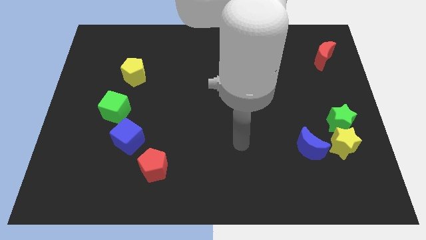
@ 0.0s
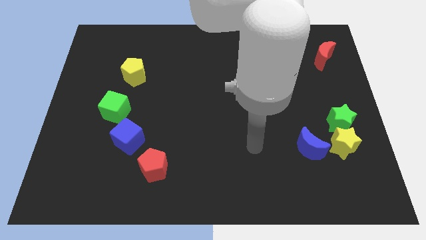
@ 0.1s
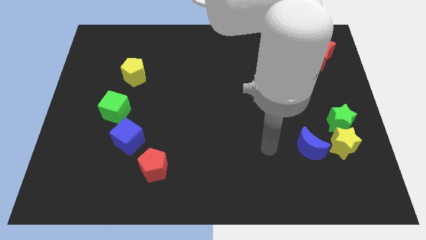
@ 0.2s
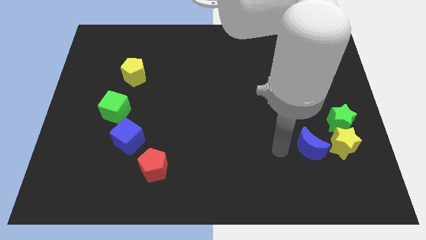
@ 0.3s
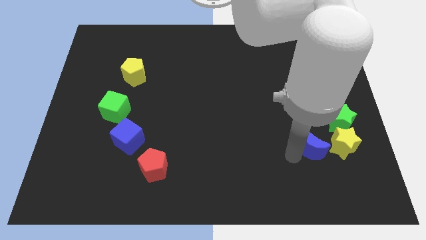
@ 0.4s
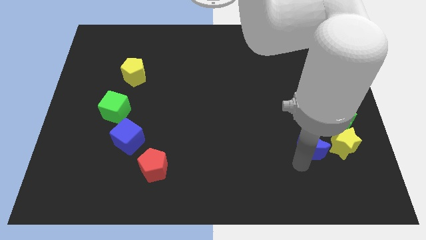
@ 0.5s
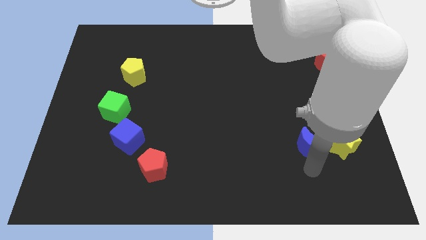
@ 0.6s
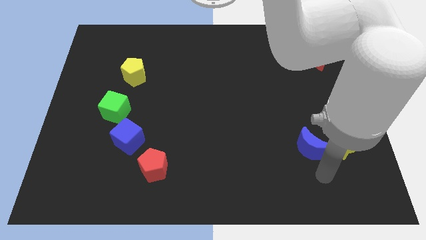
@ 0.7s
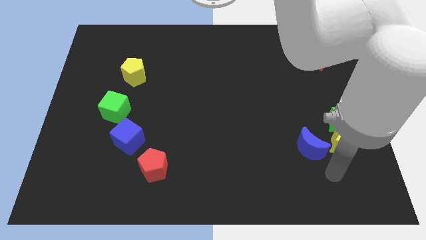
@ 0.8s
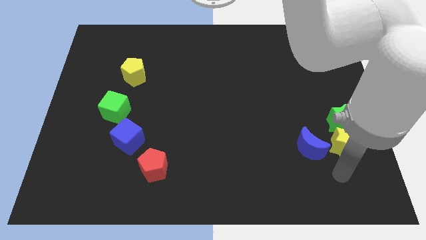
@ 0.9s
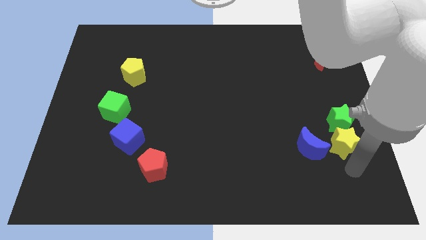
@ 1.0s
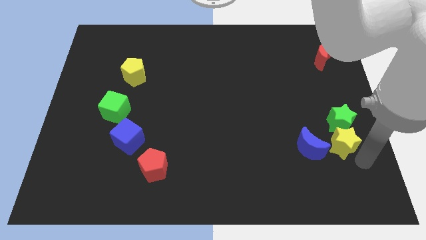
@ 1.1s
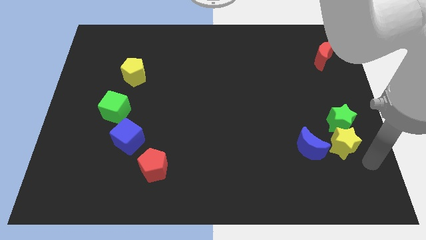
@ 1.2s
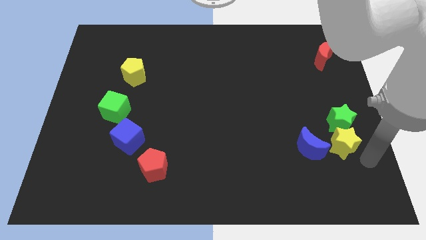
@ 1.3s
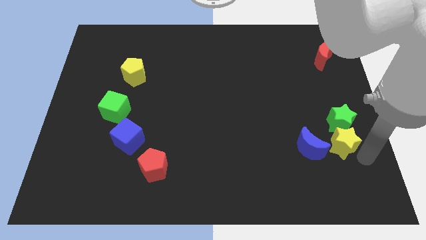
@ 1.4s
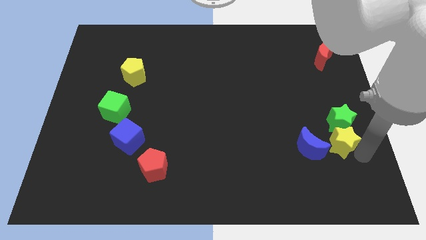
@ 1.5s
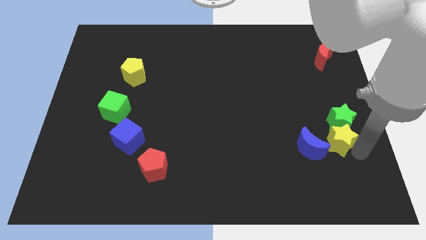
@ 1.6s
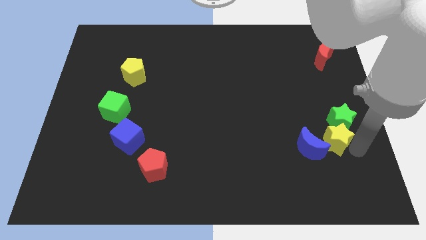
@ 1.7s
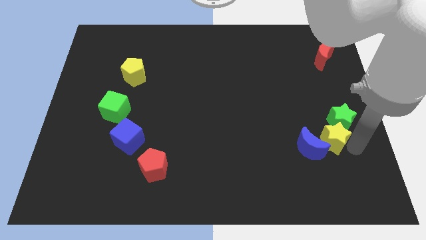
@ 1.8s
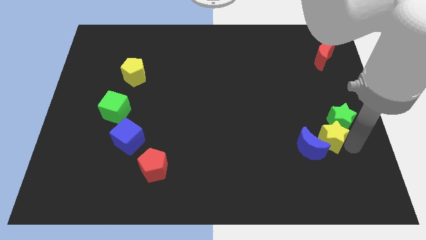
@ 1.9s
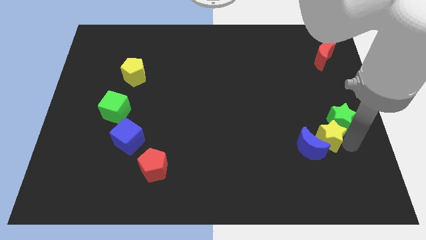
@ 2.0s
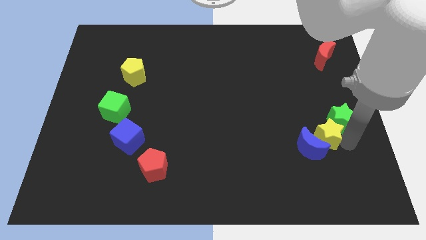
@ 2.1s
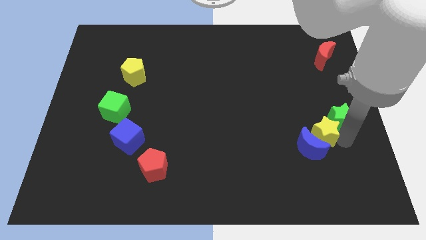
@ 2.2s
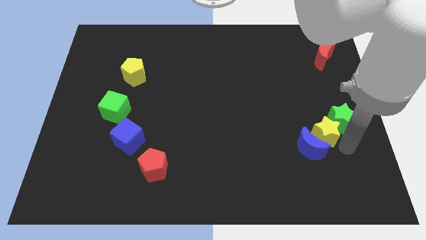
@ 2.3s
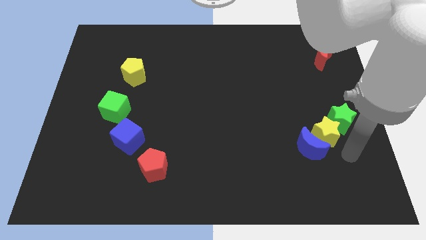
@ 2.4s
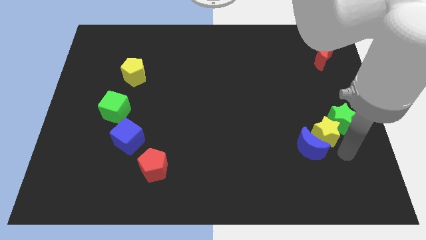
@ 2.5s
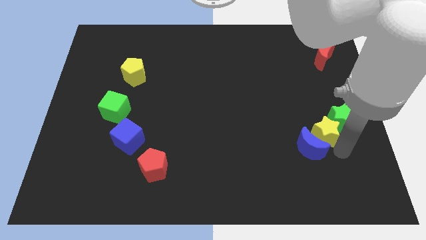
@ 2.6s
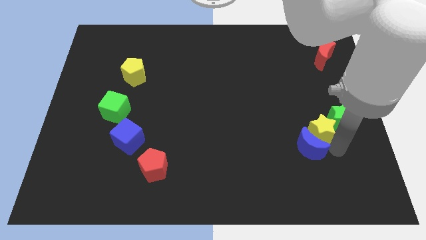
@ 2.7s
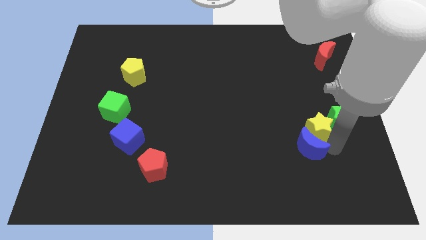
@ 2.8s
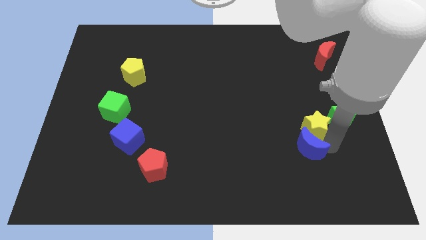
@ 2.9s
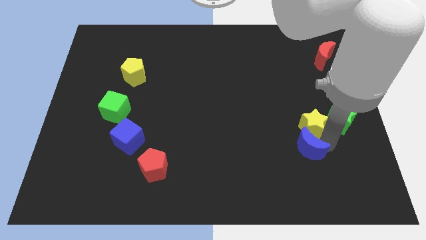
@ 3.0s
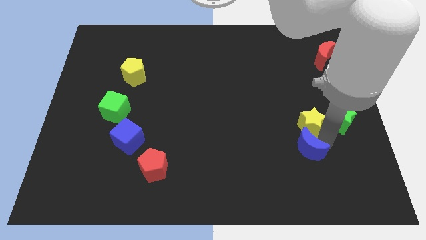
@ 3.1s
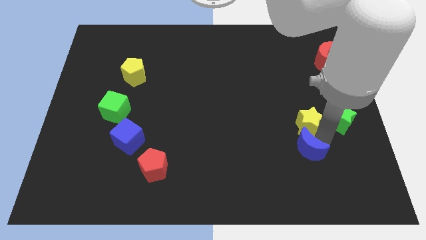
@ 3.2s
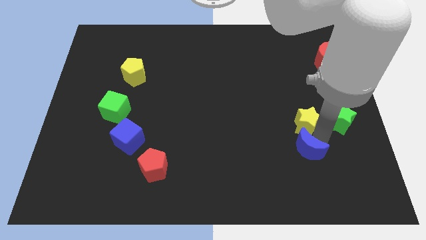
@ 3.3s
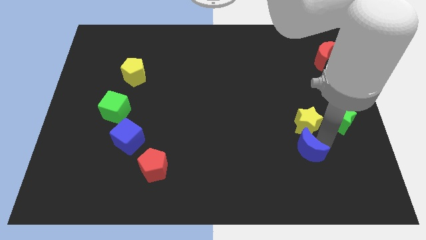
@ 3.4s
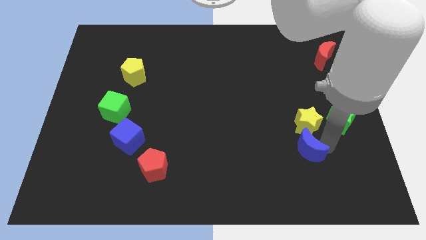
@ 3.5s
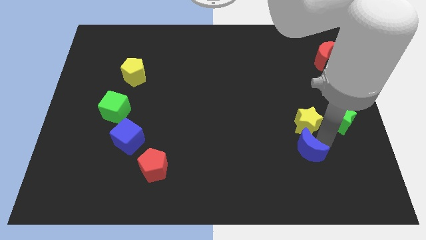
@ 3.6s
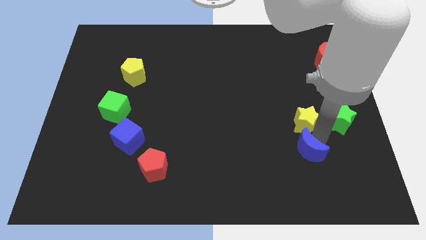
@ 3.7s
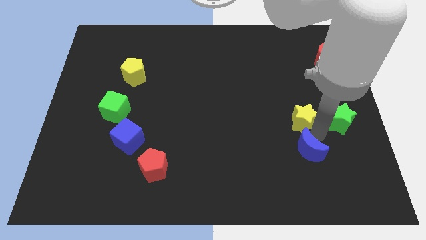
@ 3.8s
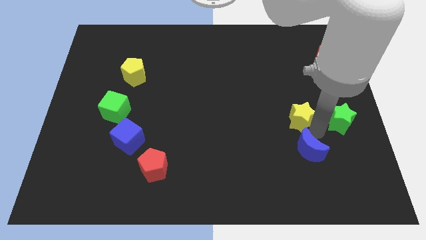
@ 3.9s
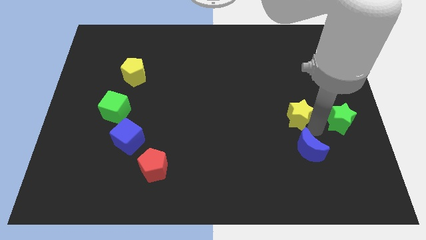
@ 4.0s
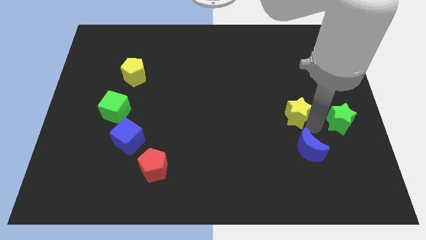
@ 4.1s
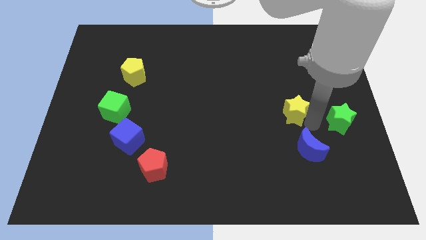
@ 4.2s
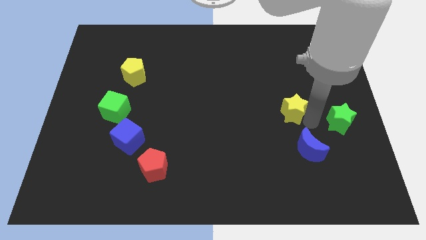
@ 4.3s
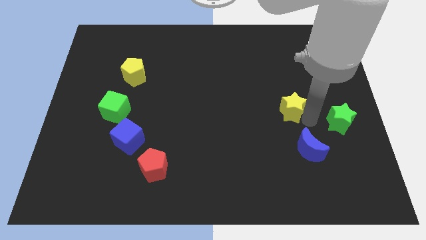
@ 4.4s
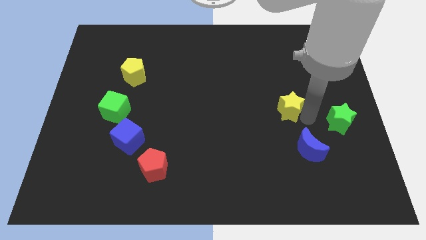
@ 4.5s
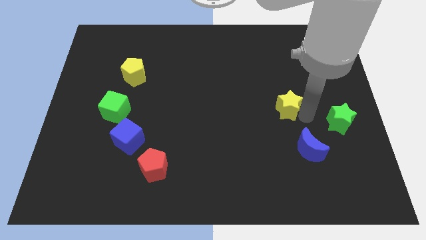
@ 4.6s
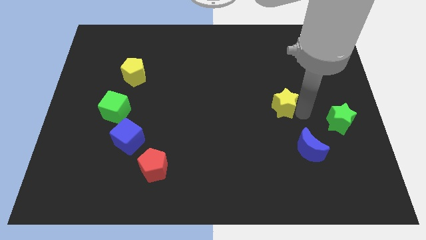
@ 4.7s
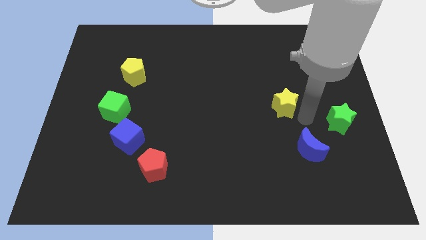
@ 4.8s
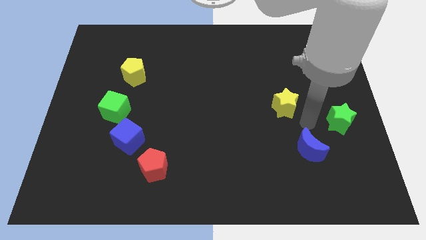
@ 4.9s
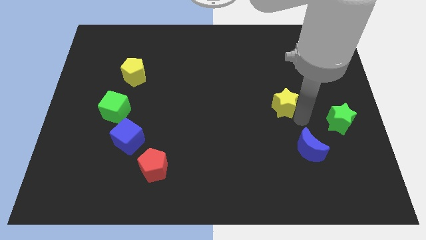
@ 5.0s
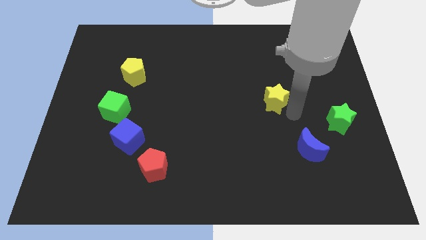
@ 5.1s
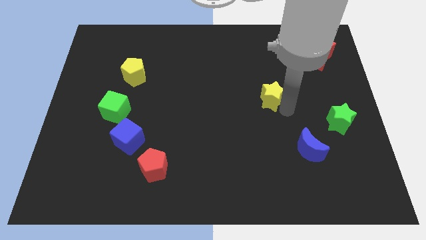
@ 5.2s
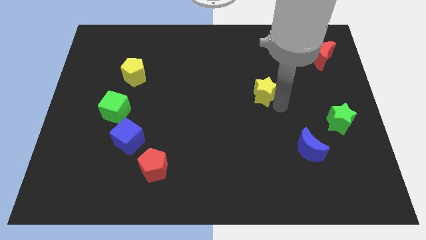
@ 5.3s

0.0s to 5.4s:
slide the yellow star diagonally upwards and to the left

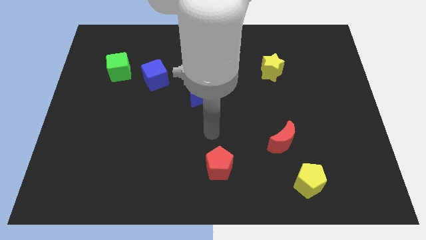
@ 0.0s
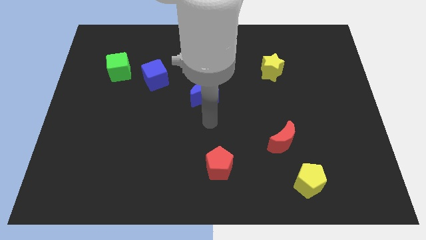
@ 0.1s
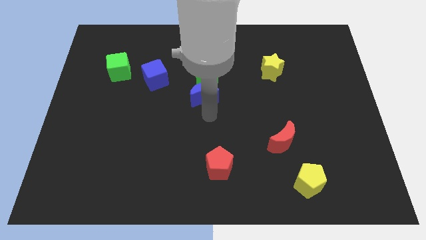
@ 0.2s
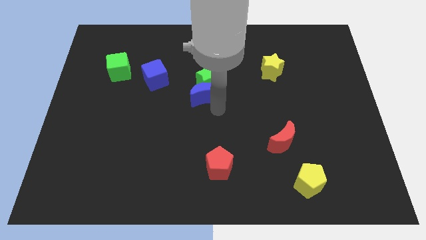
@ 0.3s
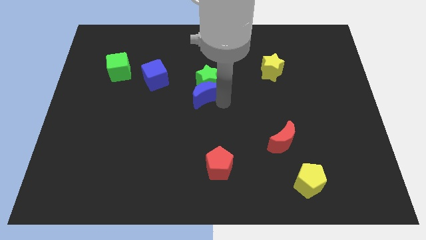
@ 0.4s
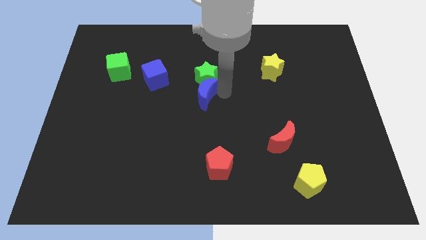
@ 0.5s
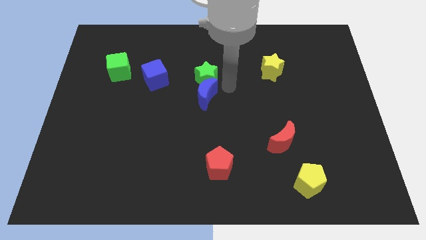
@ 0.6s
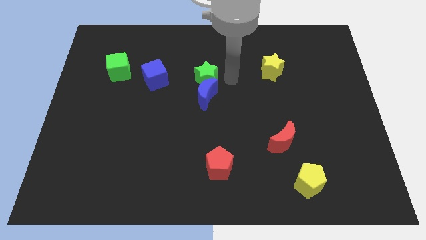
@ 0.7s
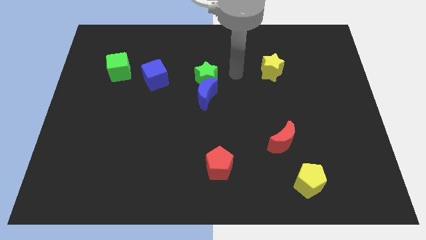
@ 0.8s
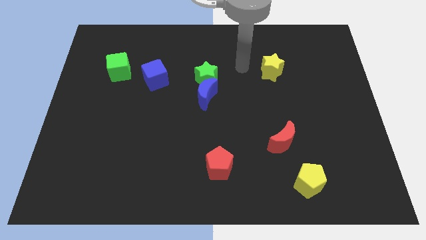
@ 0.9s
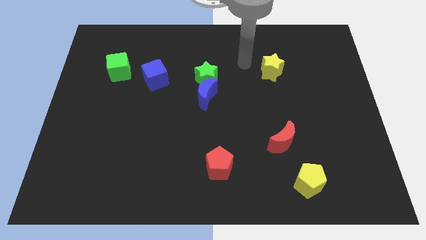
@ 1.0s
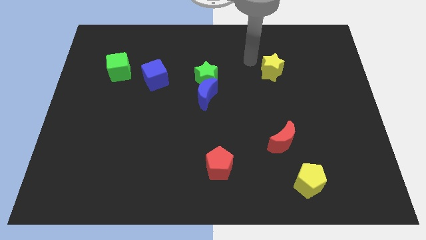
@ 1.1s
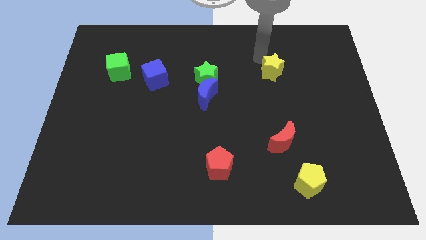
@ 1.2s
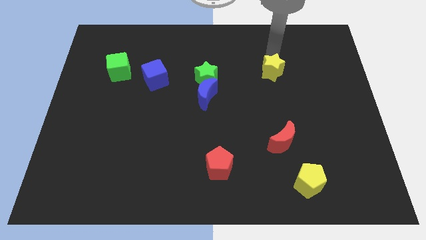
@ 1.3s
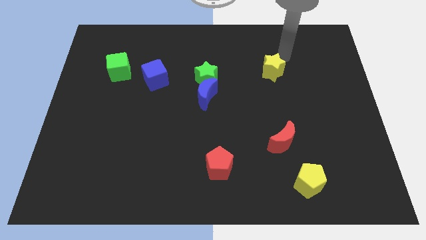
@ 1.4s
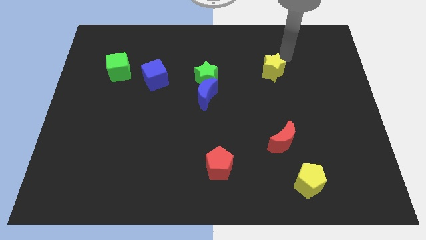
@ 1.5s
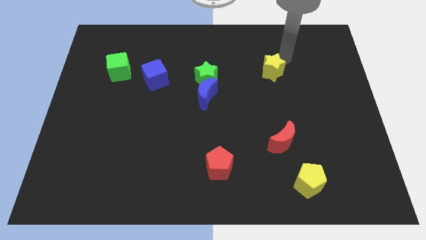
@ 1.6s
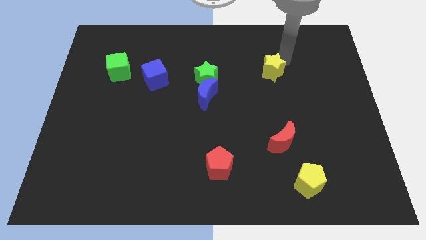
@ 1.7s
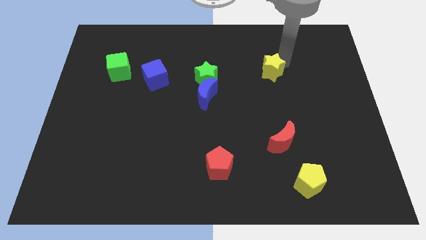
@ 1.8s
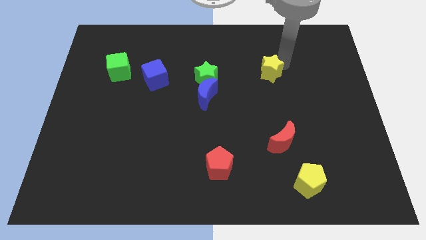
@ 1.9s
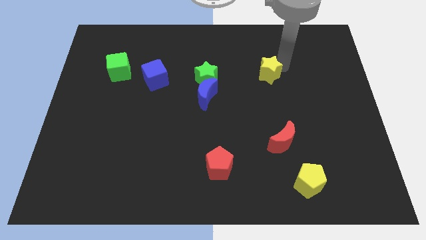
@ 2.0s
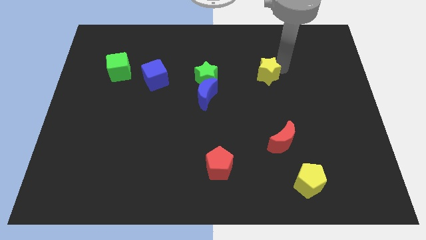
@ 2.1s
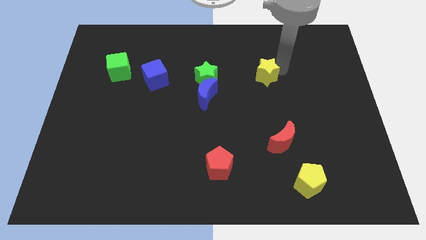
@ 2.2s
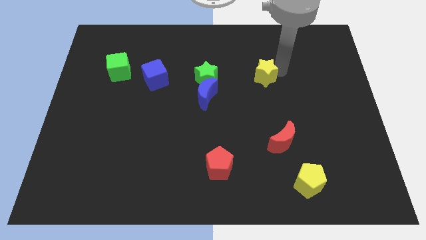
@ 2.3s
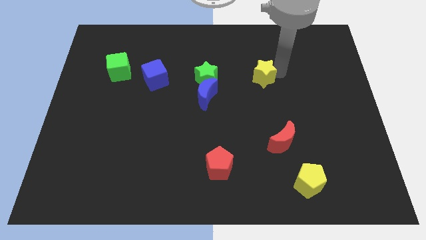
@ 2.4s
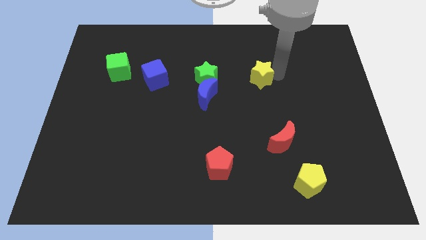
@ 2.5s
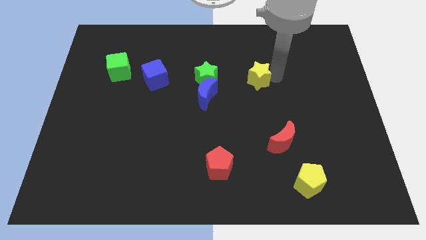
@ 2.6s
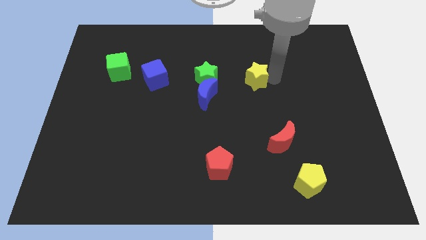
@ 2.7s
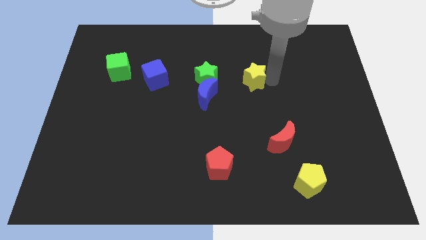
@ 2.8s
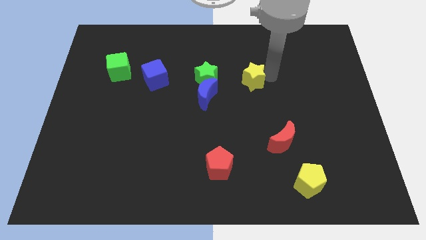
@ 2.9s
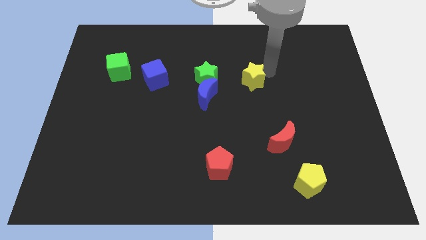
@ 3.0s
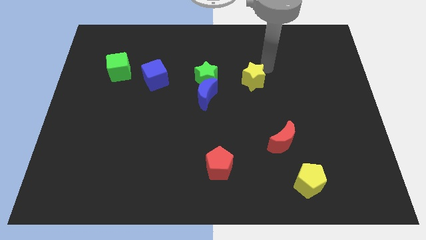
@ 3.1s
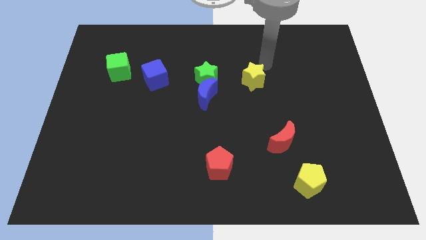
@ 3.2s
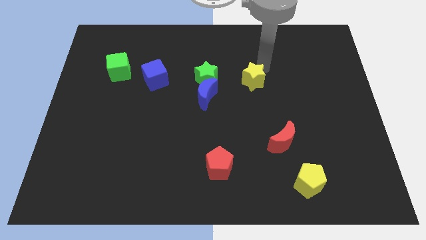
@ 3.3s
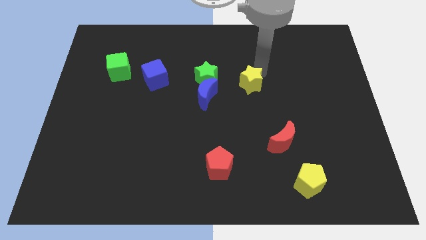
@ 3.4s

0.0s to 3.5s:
move the yellow star down and left a little bit
